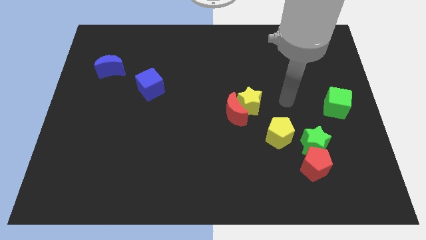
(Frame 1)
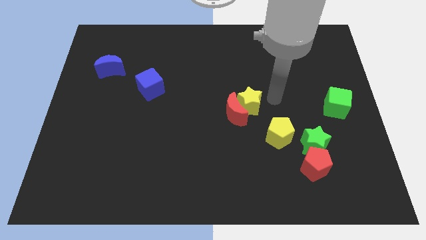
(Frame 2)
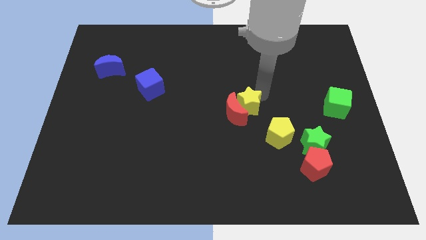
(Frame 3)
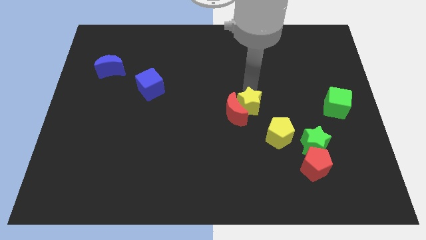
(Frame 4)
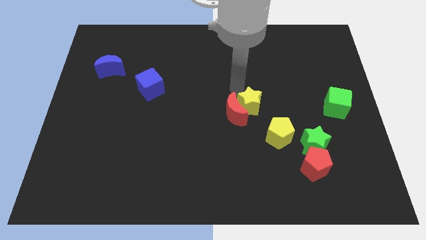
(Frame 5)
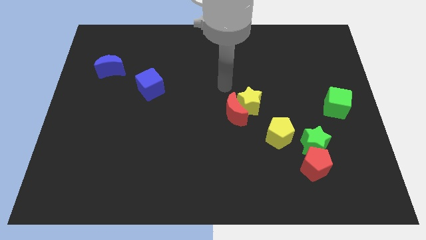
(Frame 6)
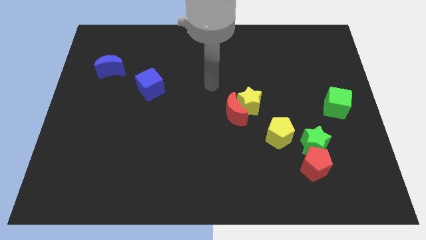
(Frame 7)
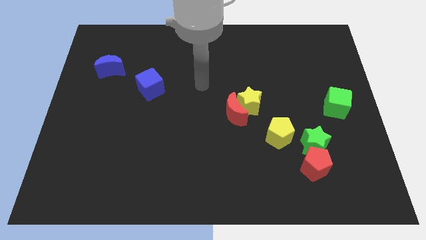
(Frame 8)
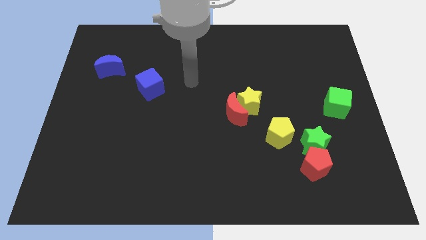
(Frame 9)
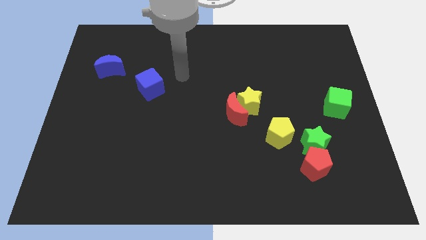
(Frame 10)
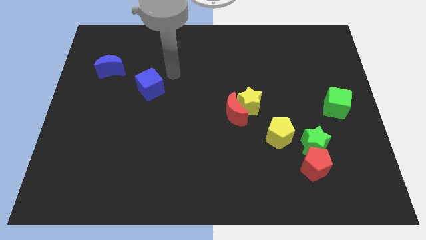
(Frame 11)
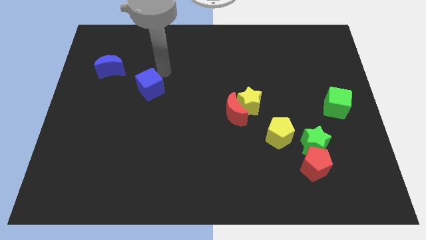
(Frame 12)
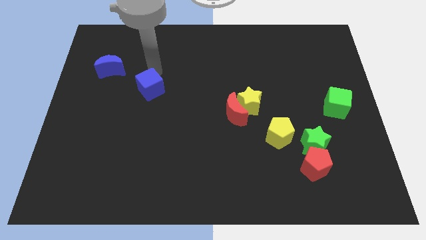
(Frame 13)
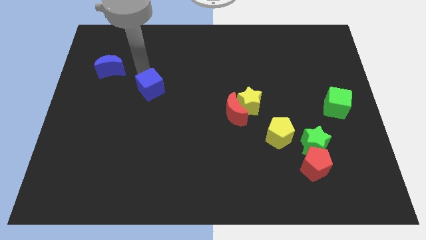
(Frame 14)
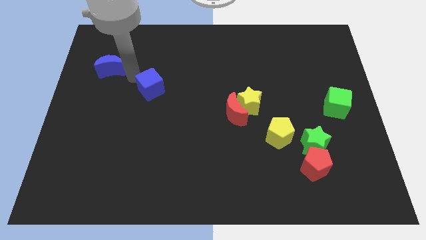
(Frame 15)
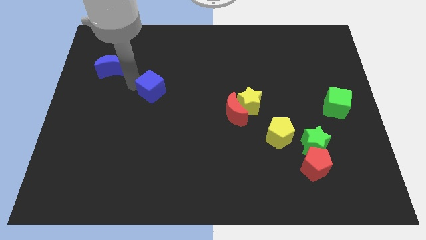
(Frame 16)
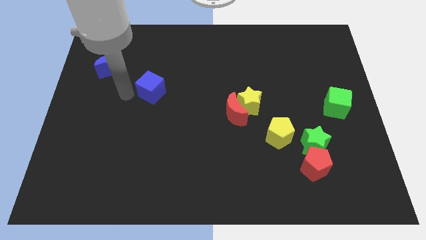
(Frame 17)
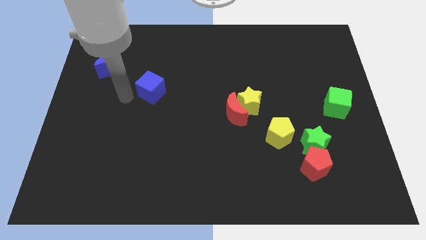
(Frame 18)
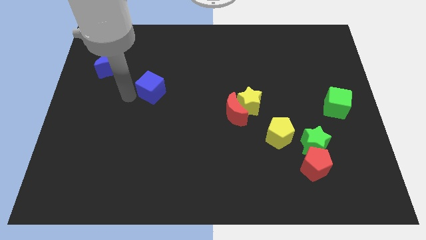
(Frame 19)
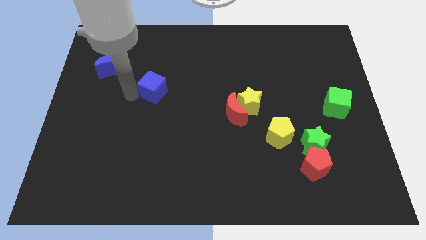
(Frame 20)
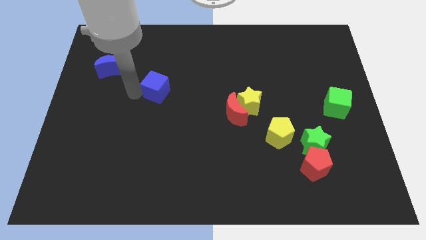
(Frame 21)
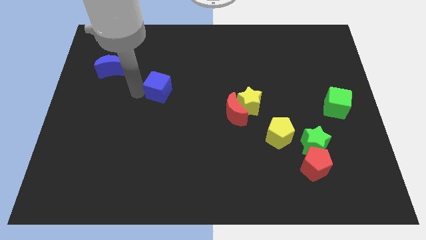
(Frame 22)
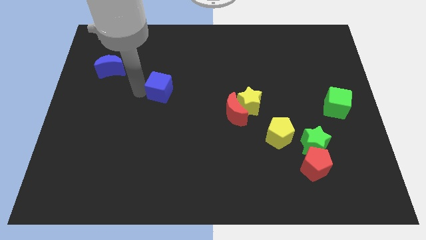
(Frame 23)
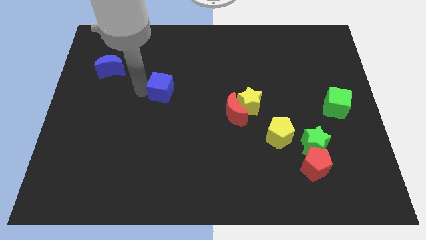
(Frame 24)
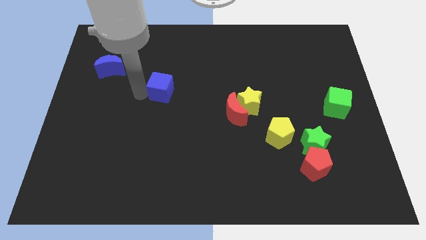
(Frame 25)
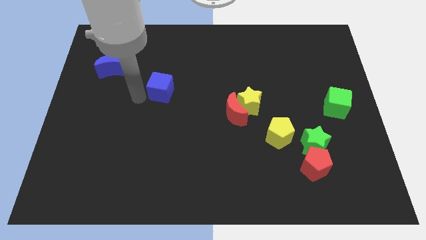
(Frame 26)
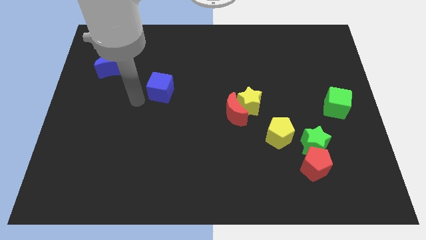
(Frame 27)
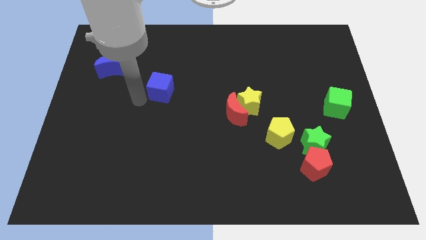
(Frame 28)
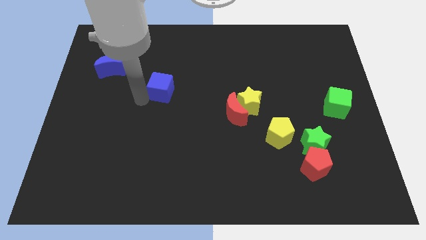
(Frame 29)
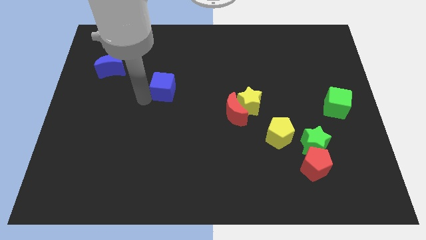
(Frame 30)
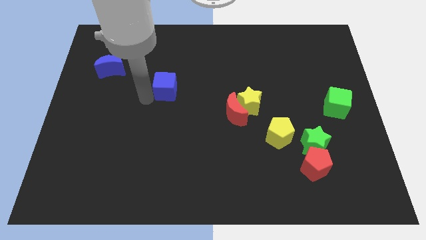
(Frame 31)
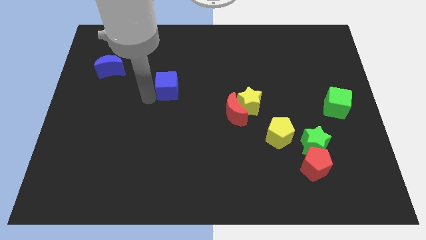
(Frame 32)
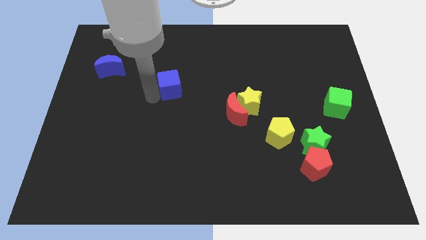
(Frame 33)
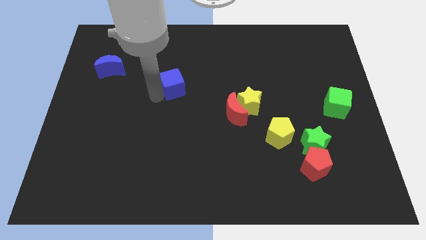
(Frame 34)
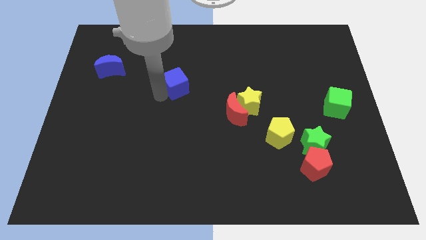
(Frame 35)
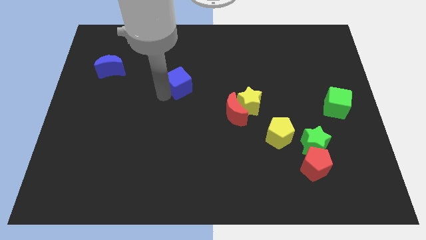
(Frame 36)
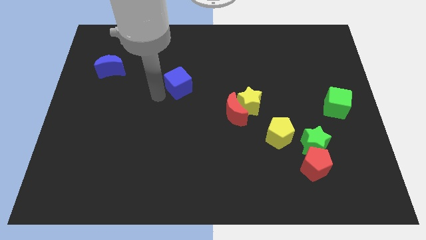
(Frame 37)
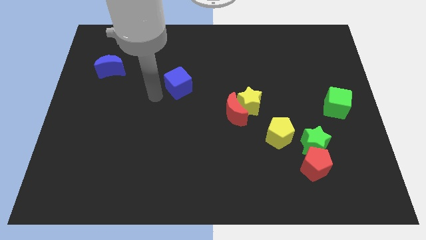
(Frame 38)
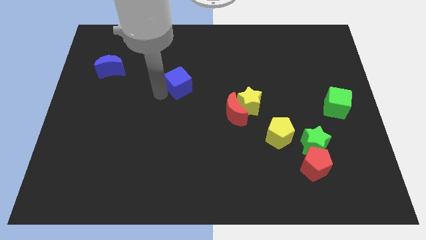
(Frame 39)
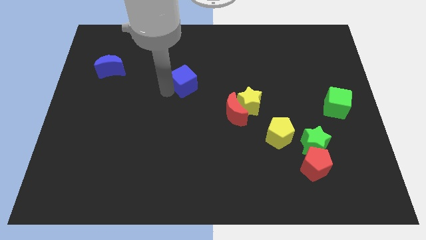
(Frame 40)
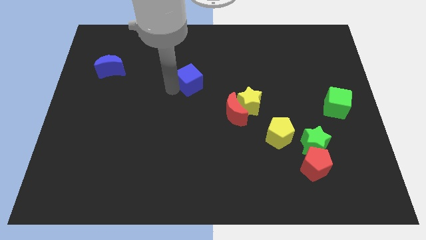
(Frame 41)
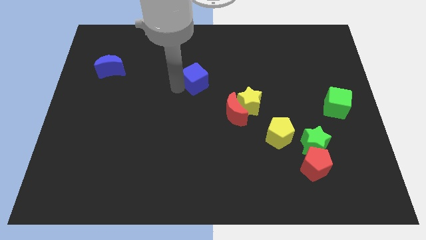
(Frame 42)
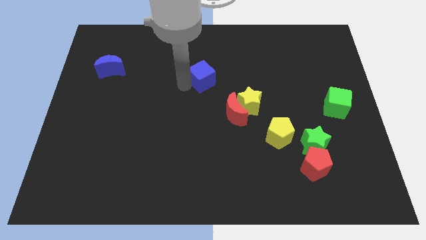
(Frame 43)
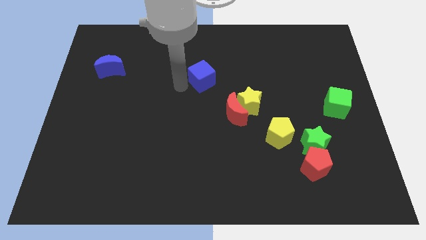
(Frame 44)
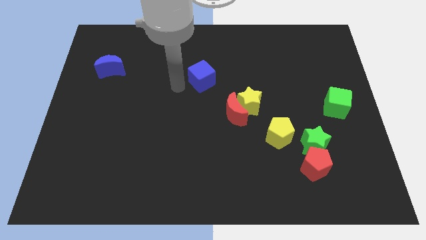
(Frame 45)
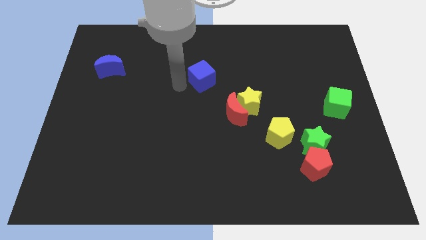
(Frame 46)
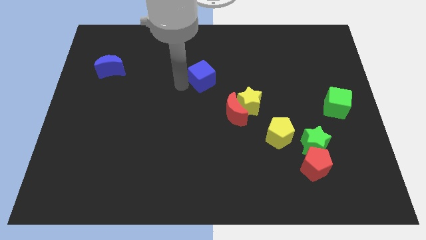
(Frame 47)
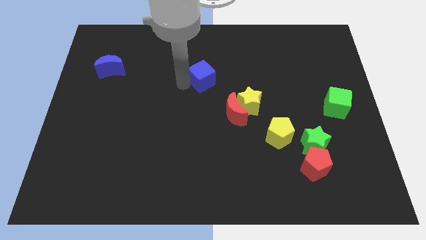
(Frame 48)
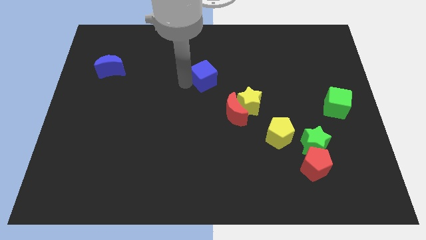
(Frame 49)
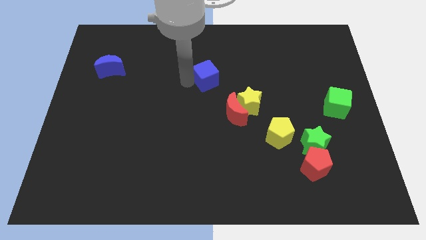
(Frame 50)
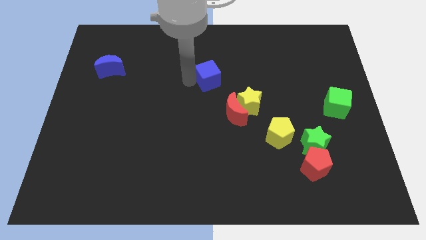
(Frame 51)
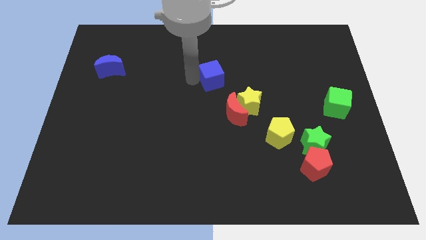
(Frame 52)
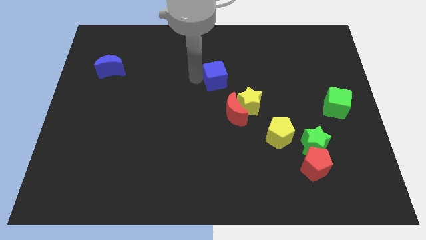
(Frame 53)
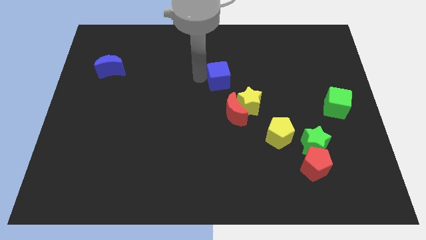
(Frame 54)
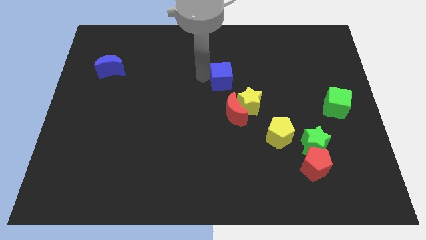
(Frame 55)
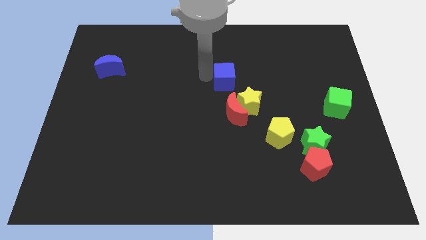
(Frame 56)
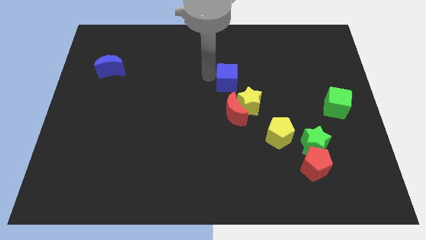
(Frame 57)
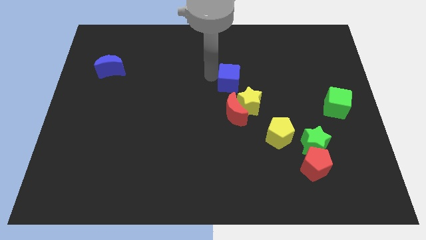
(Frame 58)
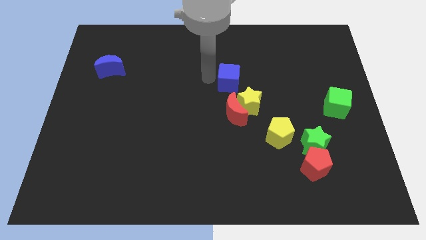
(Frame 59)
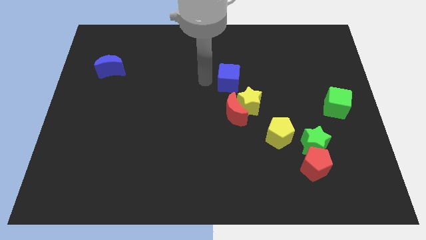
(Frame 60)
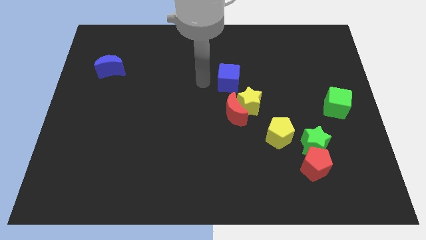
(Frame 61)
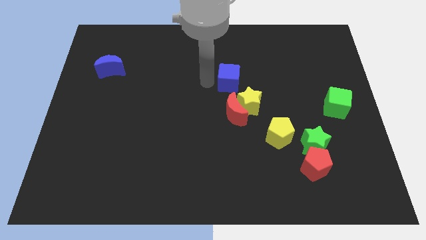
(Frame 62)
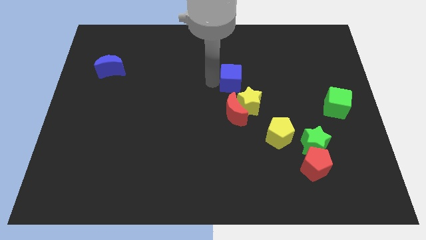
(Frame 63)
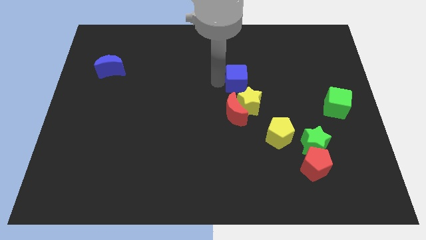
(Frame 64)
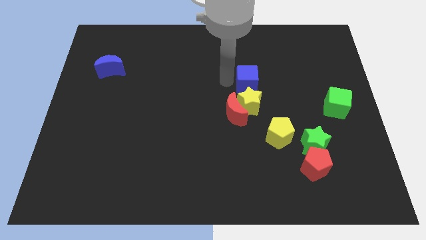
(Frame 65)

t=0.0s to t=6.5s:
move the blue cube to the top right of the yellow star

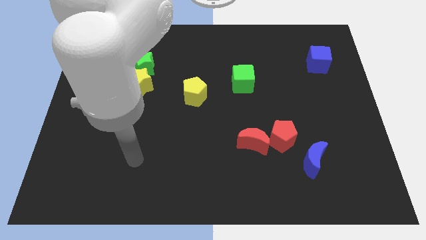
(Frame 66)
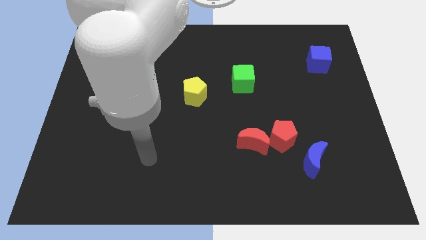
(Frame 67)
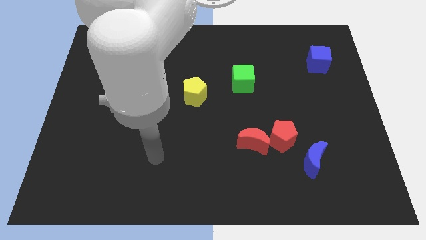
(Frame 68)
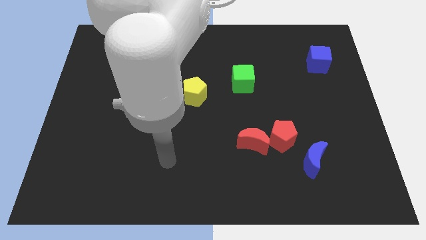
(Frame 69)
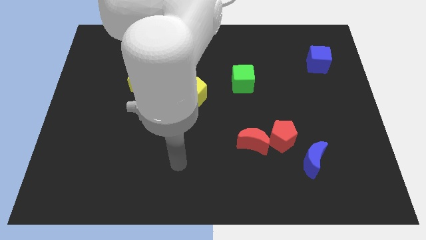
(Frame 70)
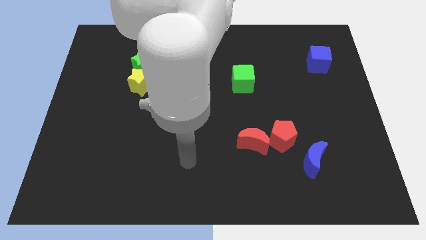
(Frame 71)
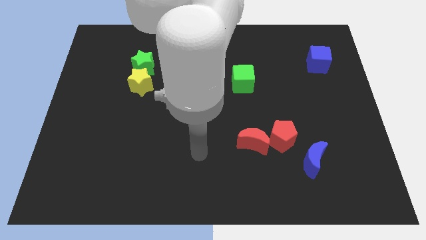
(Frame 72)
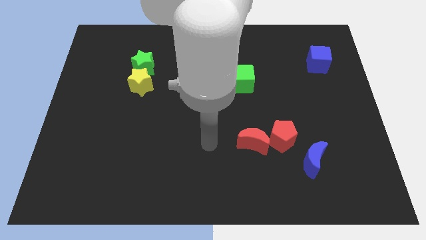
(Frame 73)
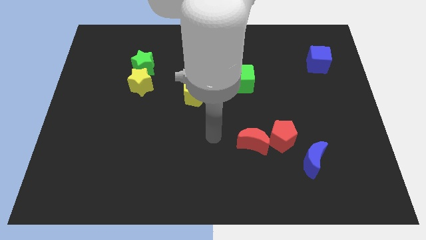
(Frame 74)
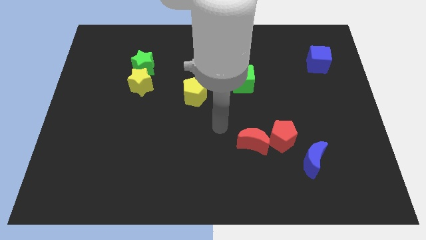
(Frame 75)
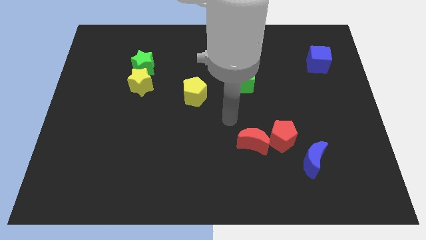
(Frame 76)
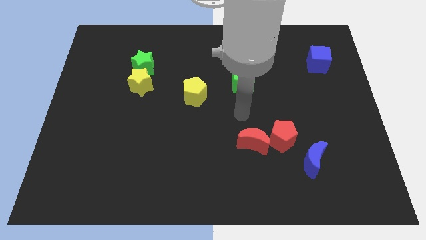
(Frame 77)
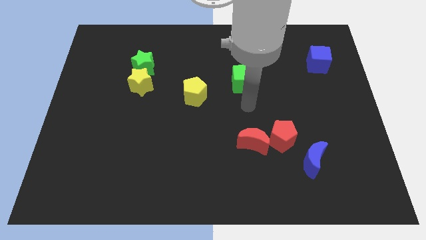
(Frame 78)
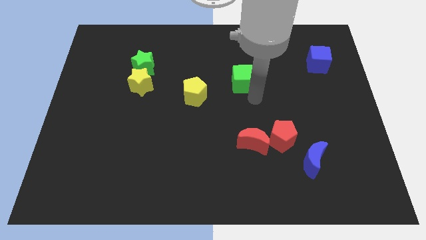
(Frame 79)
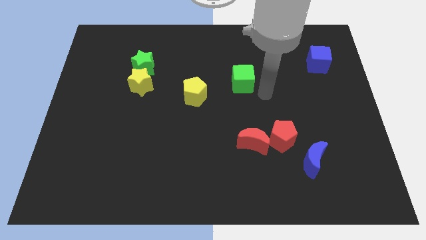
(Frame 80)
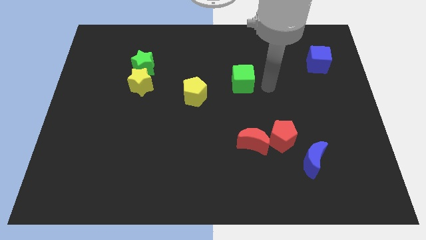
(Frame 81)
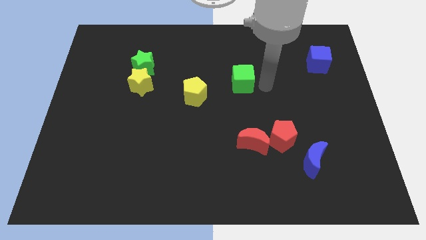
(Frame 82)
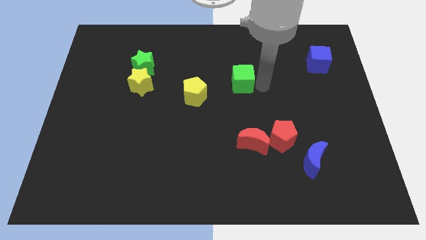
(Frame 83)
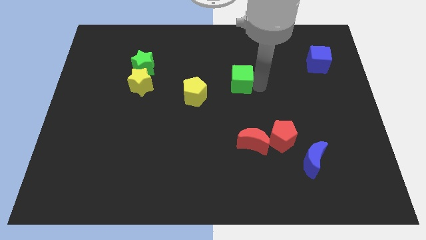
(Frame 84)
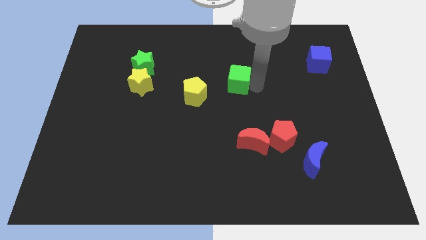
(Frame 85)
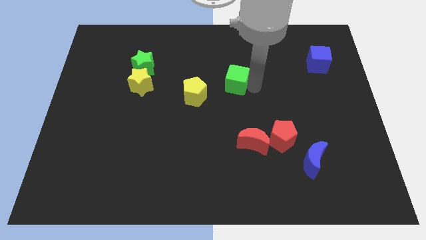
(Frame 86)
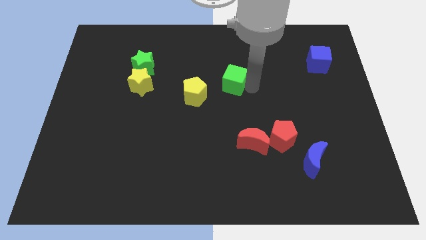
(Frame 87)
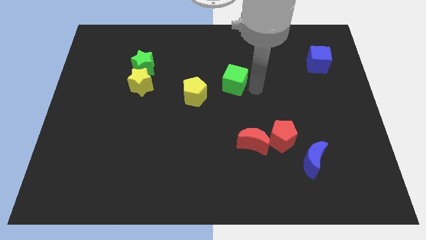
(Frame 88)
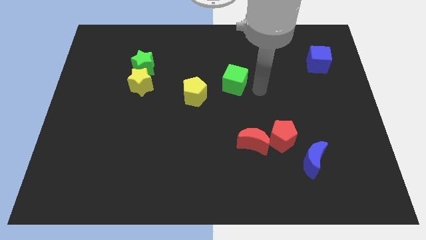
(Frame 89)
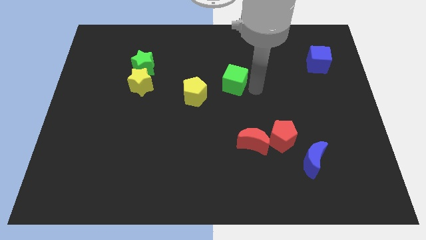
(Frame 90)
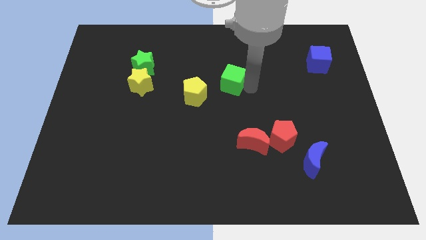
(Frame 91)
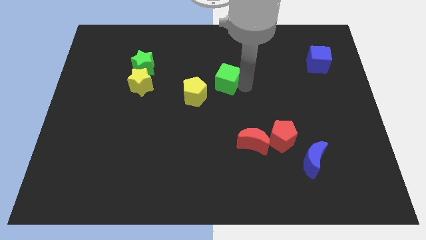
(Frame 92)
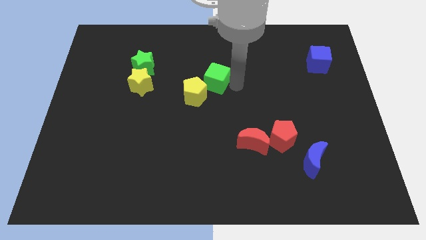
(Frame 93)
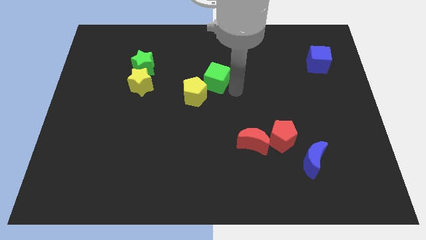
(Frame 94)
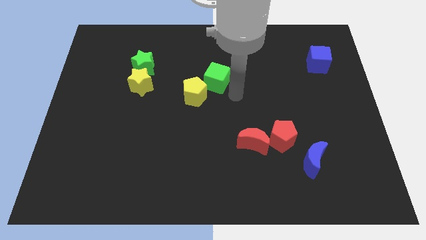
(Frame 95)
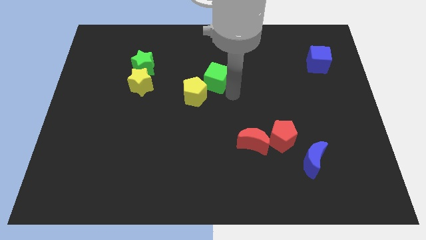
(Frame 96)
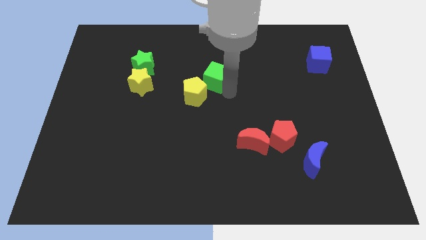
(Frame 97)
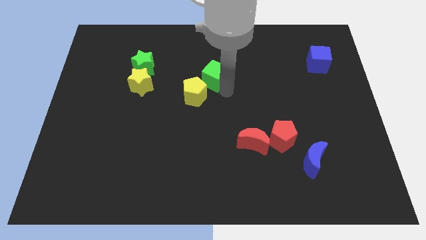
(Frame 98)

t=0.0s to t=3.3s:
push the green cube above the yellow pentagon
